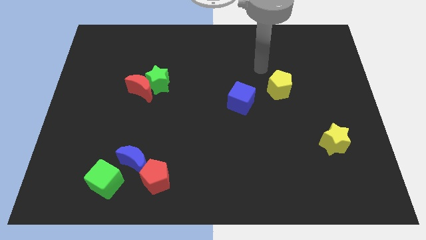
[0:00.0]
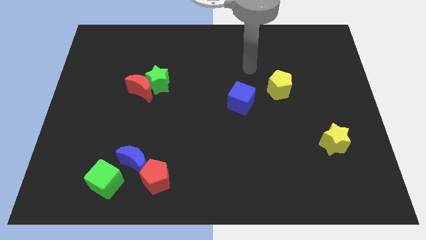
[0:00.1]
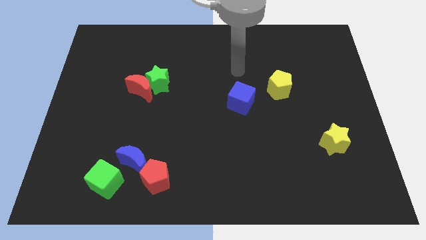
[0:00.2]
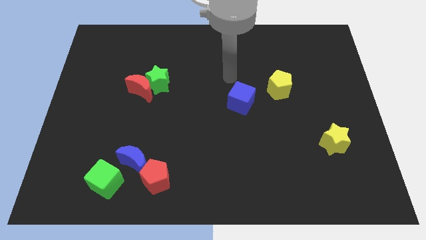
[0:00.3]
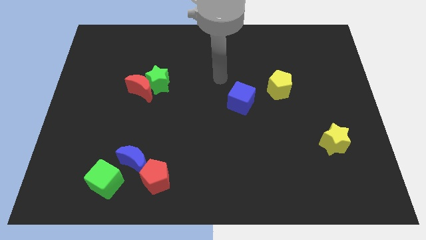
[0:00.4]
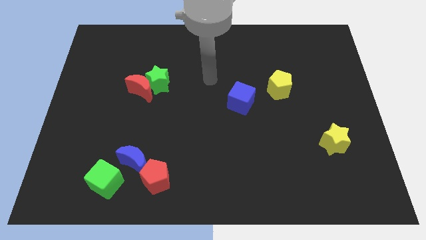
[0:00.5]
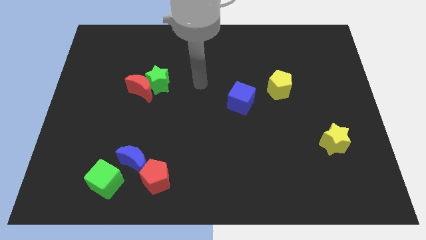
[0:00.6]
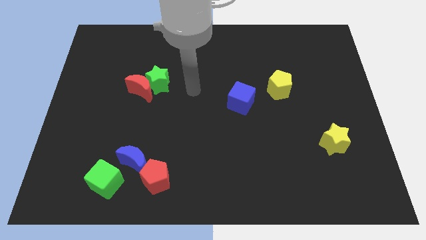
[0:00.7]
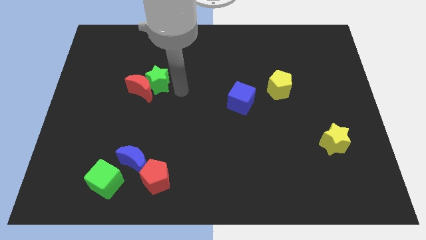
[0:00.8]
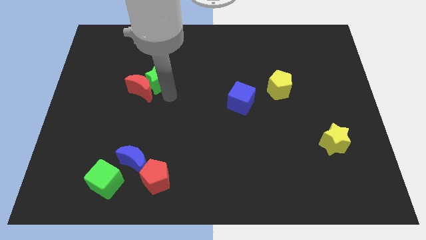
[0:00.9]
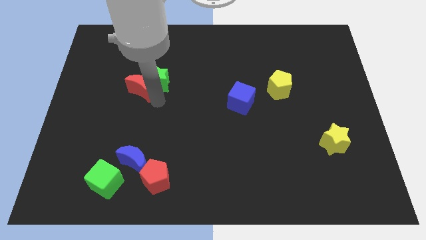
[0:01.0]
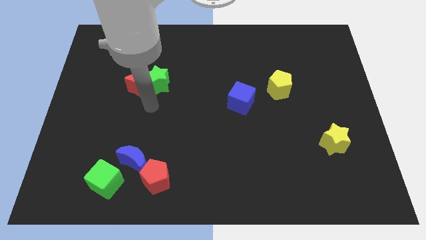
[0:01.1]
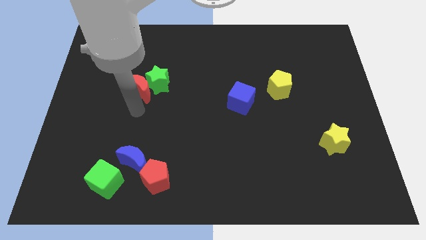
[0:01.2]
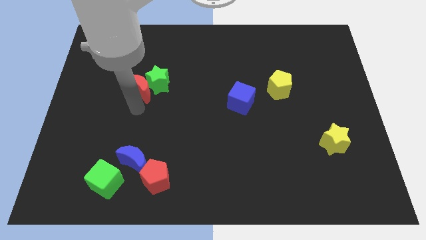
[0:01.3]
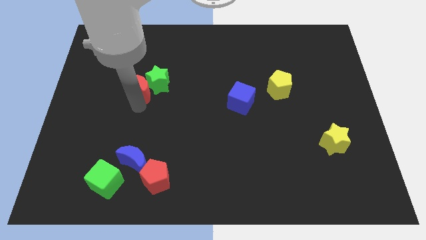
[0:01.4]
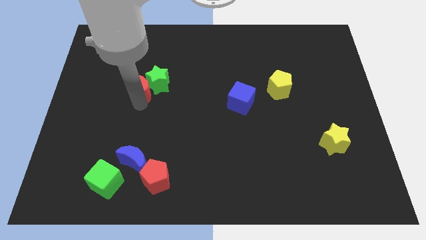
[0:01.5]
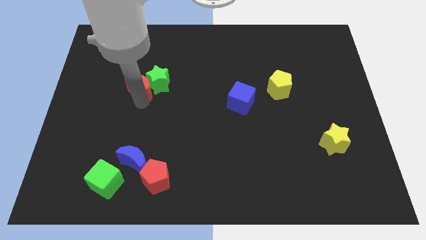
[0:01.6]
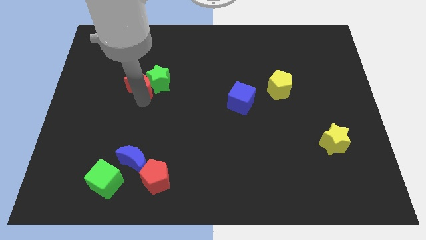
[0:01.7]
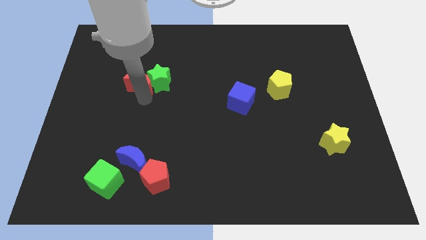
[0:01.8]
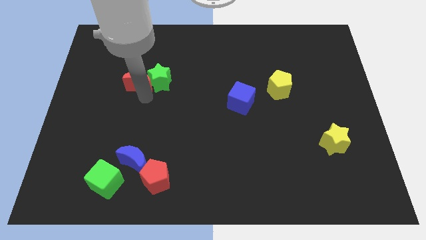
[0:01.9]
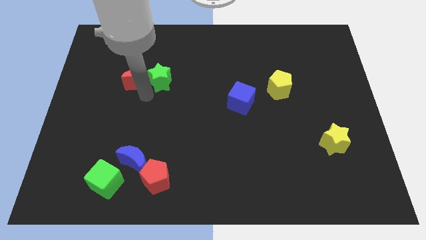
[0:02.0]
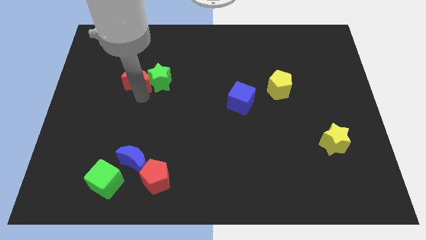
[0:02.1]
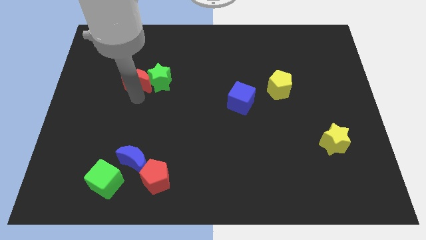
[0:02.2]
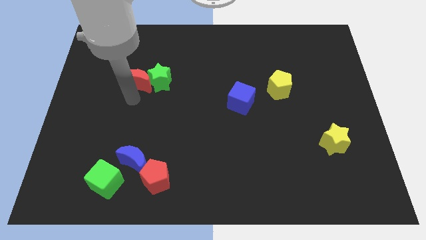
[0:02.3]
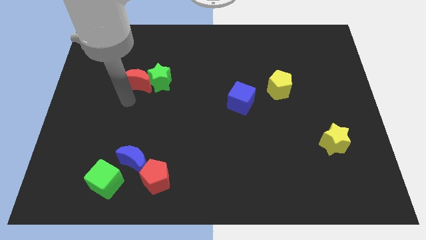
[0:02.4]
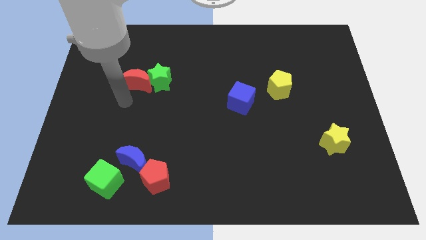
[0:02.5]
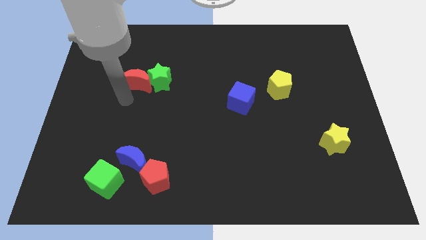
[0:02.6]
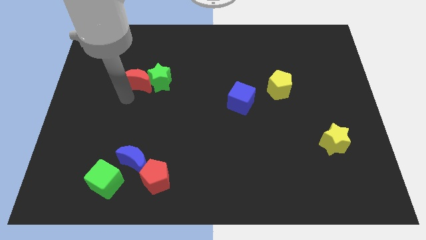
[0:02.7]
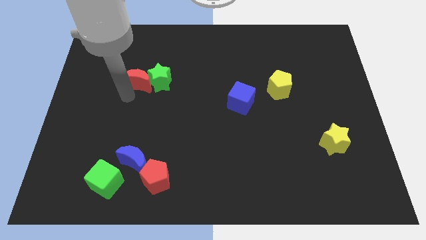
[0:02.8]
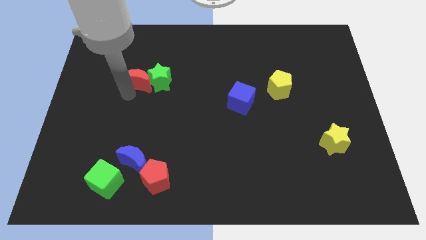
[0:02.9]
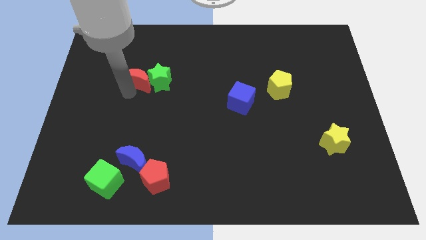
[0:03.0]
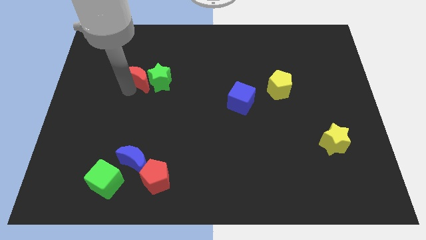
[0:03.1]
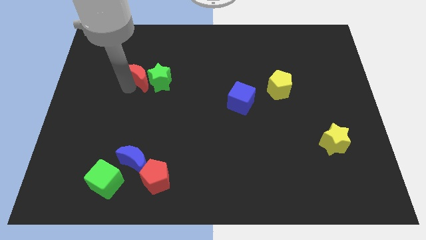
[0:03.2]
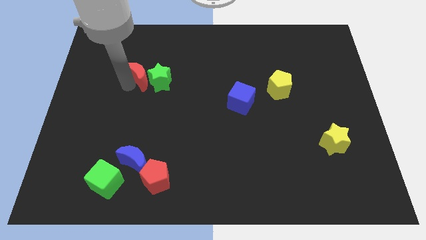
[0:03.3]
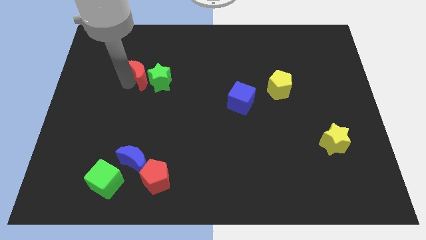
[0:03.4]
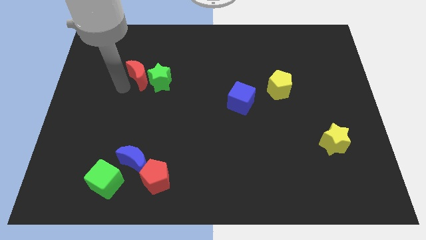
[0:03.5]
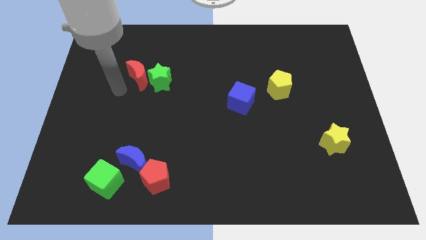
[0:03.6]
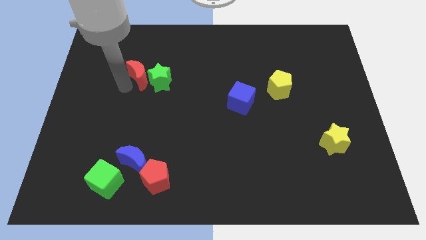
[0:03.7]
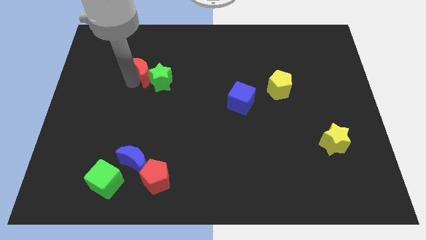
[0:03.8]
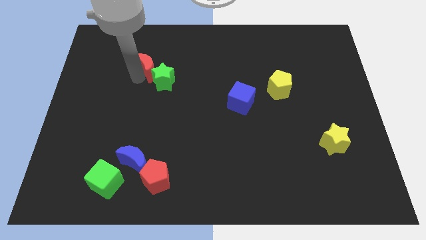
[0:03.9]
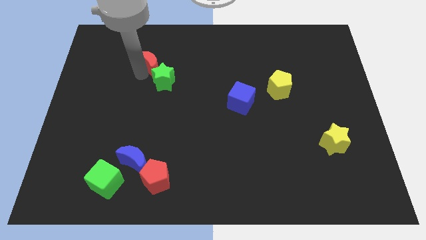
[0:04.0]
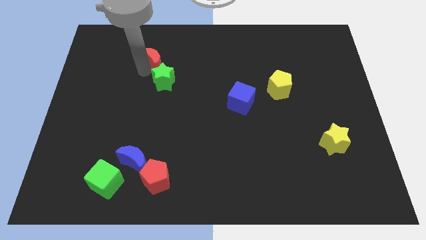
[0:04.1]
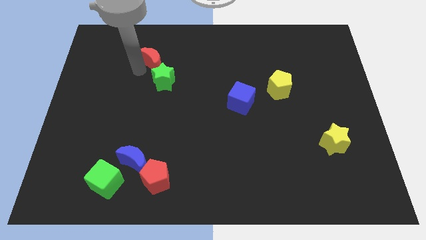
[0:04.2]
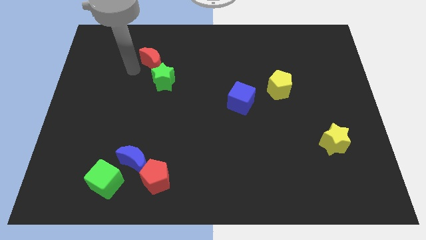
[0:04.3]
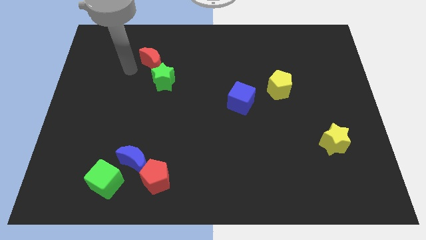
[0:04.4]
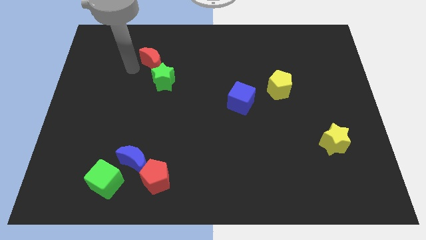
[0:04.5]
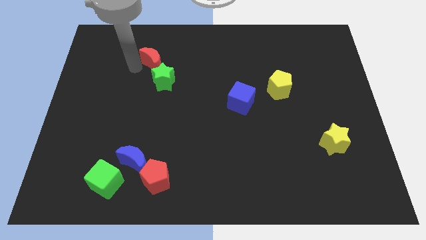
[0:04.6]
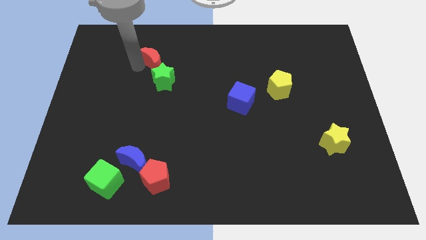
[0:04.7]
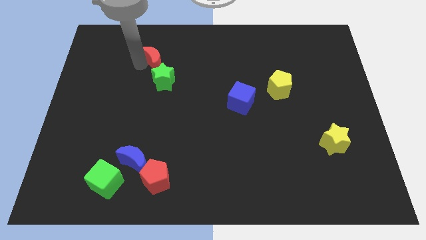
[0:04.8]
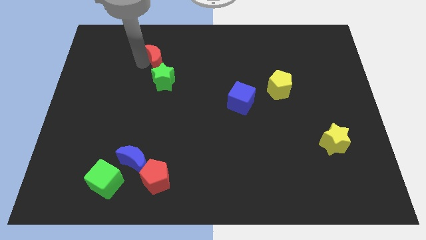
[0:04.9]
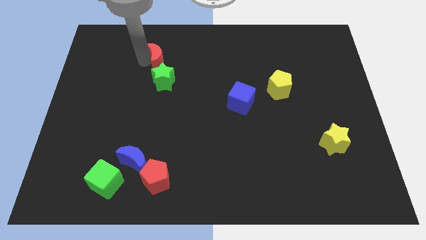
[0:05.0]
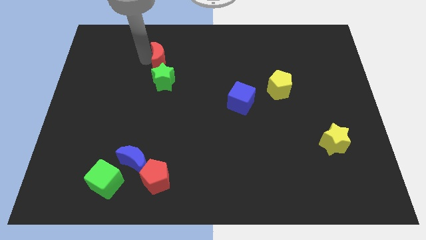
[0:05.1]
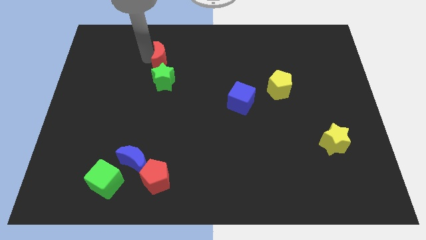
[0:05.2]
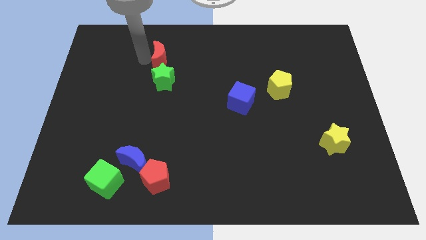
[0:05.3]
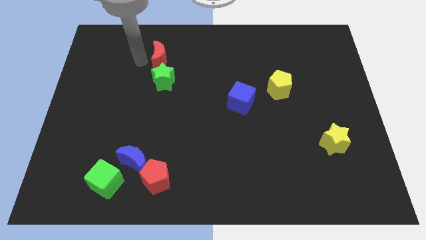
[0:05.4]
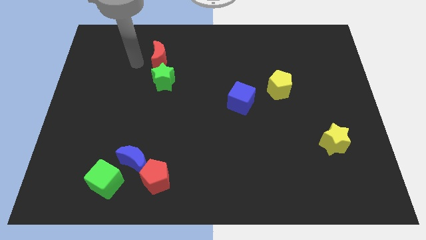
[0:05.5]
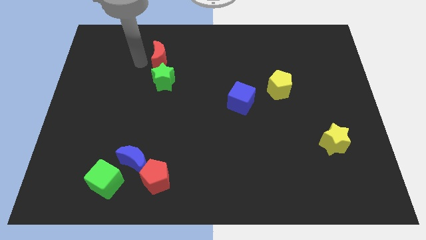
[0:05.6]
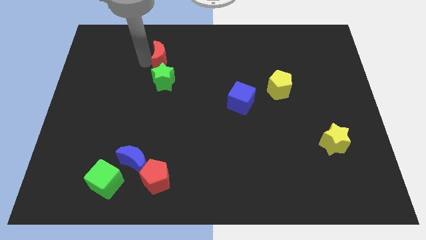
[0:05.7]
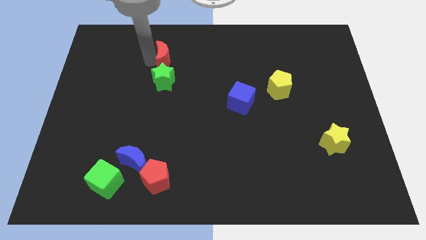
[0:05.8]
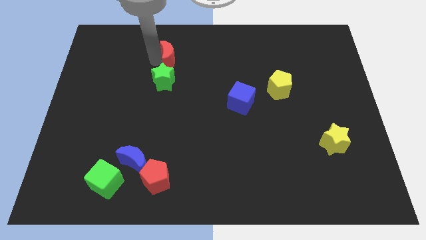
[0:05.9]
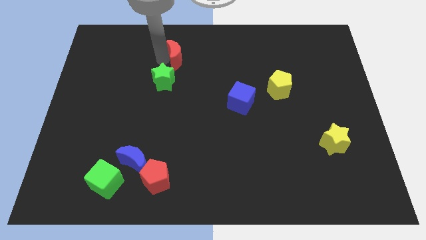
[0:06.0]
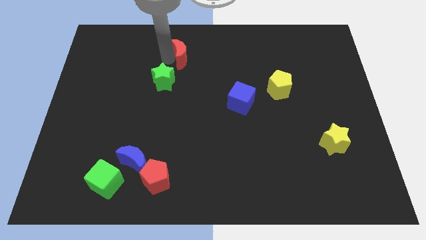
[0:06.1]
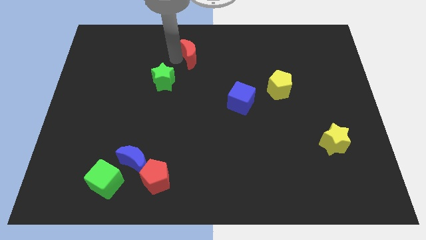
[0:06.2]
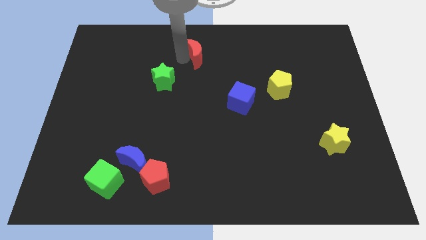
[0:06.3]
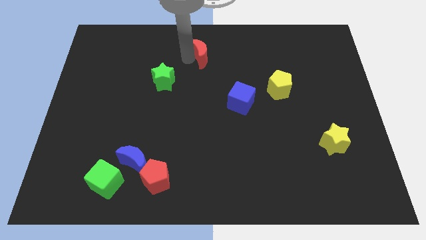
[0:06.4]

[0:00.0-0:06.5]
slide the red moon to the towards your base
